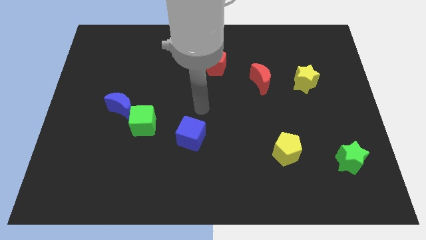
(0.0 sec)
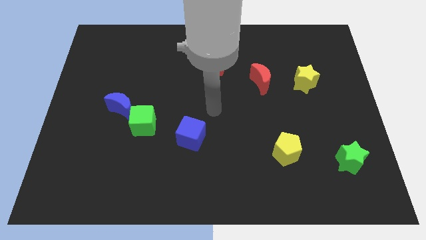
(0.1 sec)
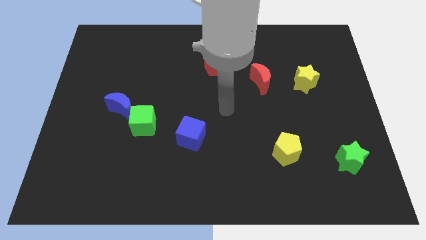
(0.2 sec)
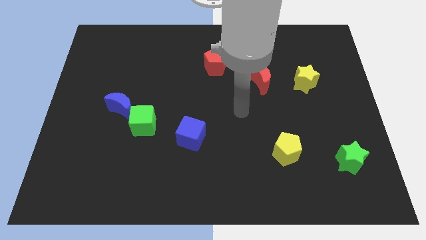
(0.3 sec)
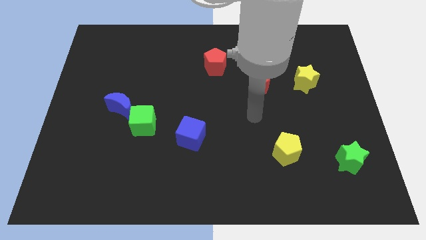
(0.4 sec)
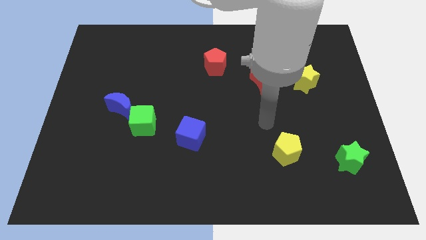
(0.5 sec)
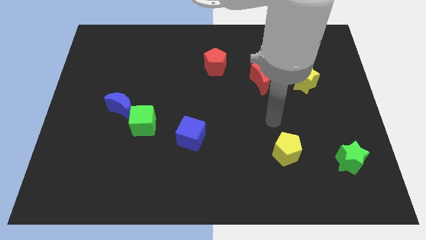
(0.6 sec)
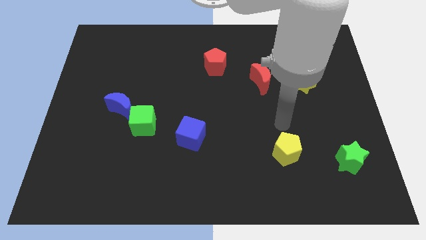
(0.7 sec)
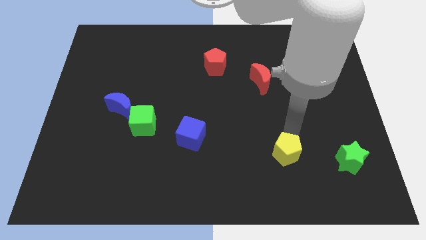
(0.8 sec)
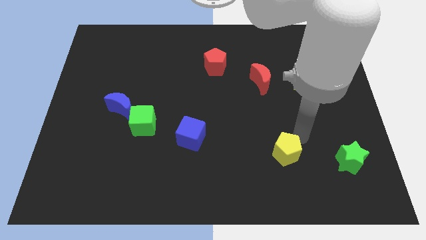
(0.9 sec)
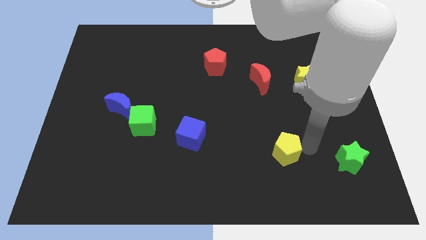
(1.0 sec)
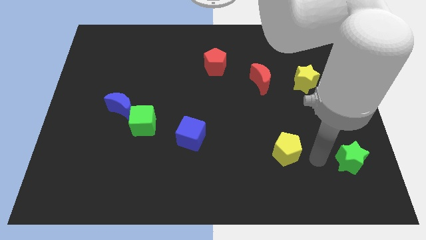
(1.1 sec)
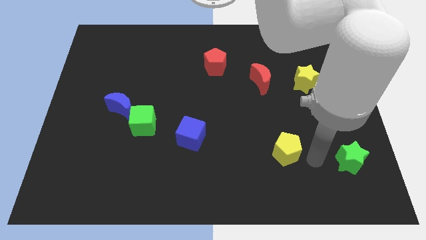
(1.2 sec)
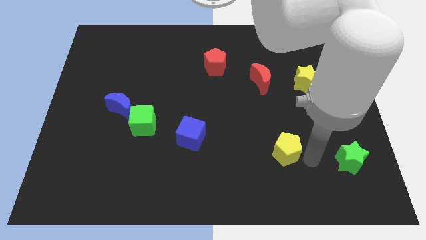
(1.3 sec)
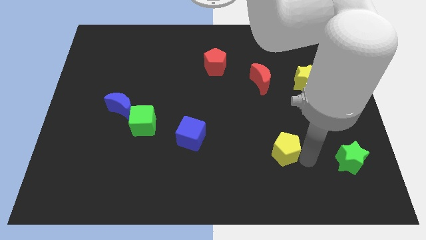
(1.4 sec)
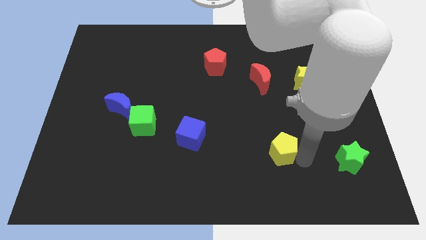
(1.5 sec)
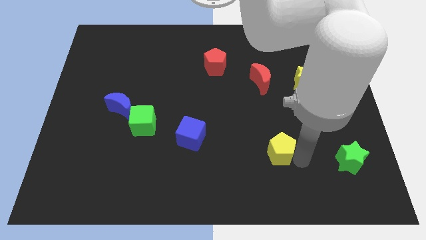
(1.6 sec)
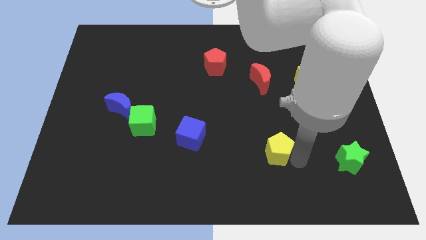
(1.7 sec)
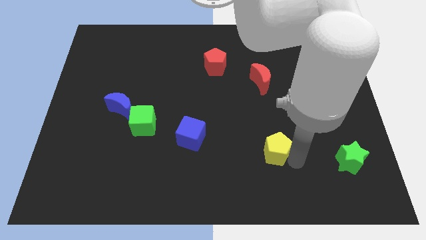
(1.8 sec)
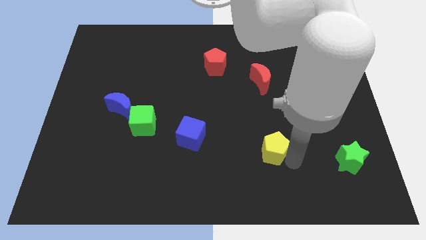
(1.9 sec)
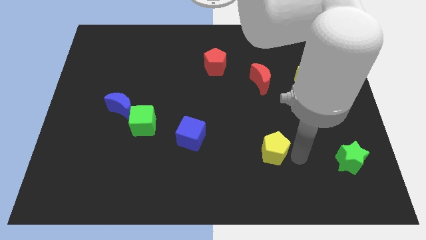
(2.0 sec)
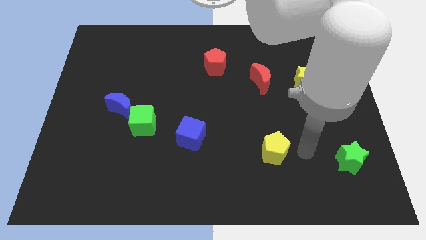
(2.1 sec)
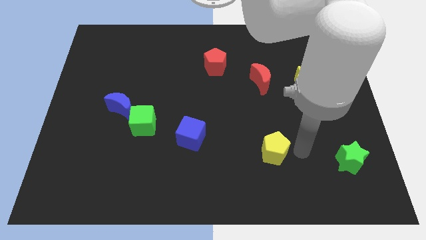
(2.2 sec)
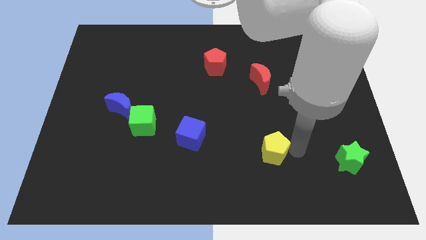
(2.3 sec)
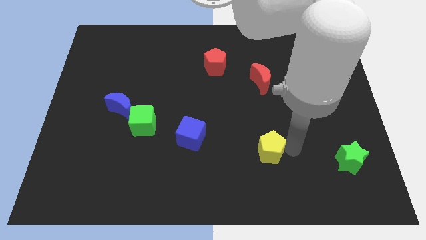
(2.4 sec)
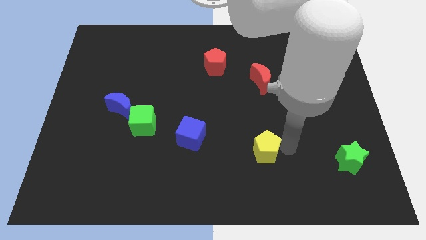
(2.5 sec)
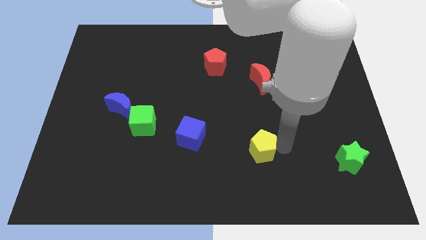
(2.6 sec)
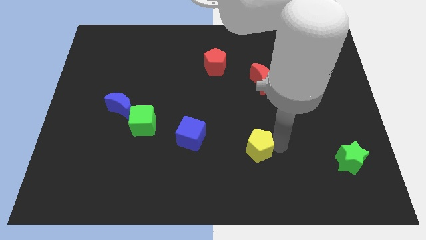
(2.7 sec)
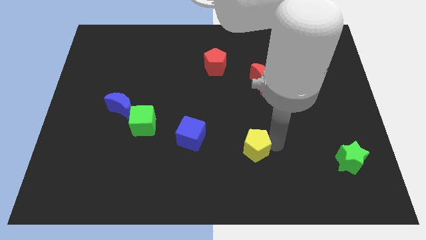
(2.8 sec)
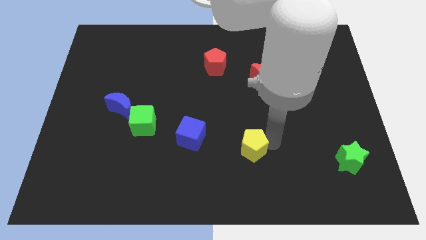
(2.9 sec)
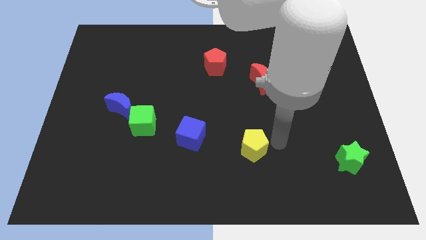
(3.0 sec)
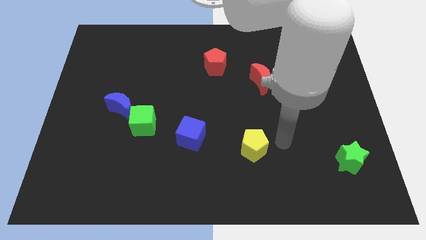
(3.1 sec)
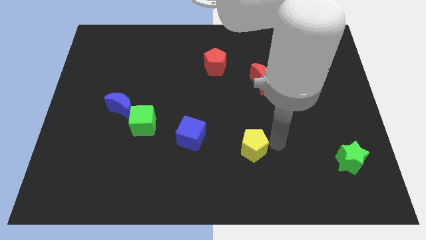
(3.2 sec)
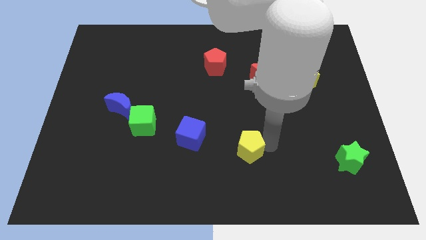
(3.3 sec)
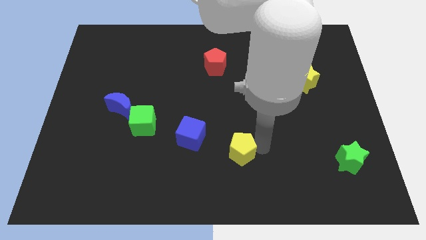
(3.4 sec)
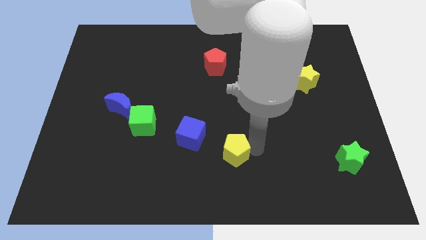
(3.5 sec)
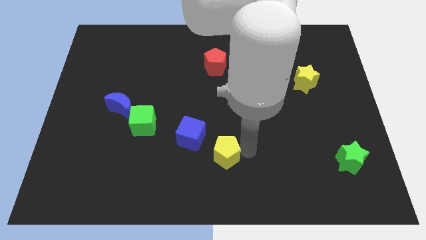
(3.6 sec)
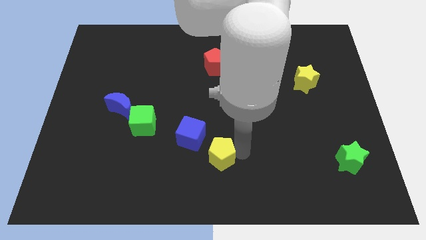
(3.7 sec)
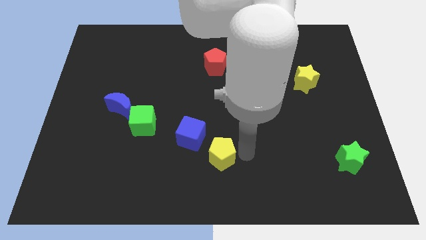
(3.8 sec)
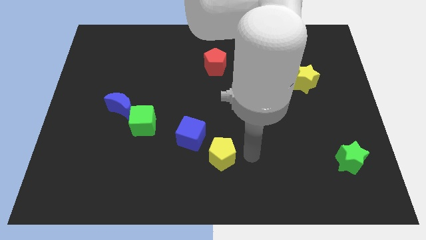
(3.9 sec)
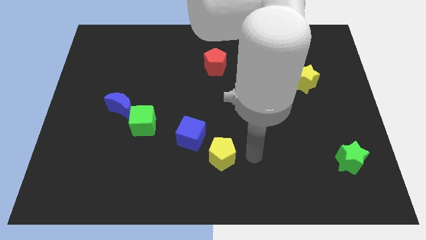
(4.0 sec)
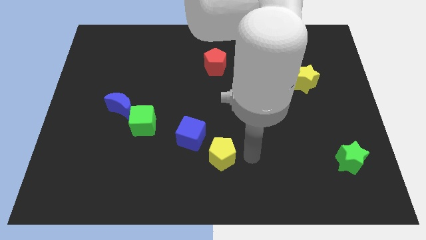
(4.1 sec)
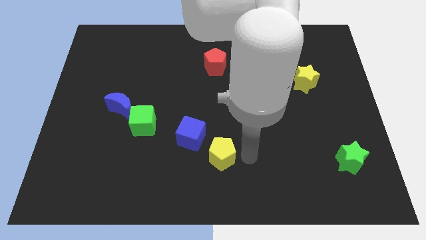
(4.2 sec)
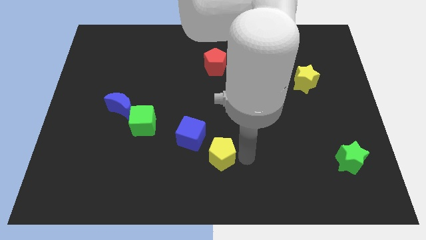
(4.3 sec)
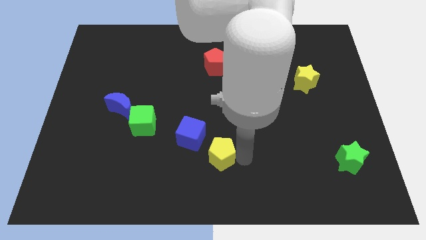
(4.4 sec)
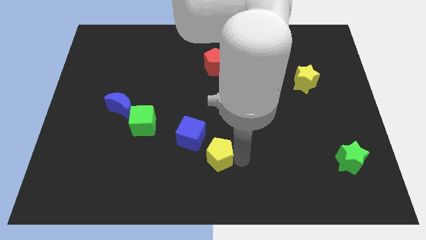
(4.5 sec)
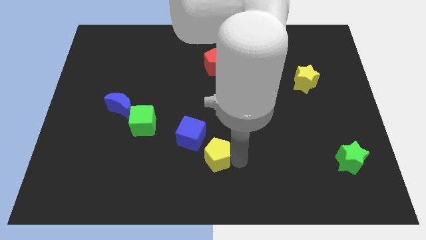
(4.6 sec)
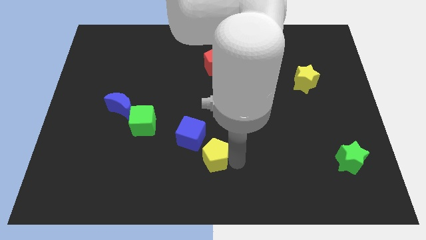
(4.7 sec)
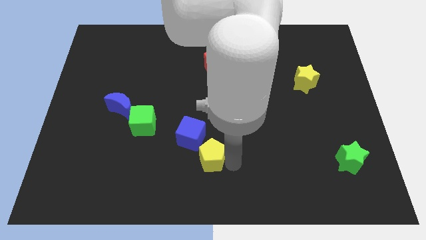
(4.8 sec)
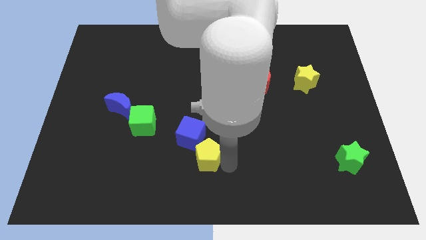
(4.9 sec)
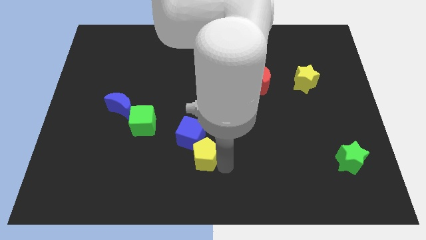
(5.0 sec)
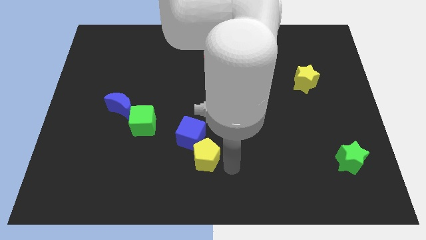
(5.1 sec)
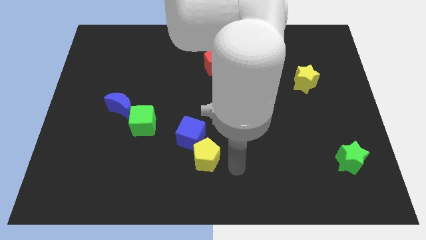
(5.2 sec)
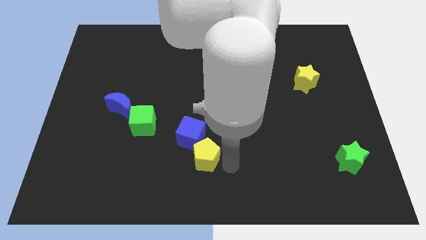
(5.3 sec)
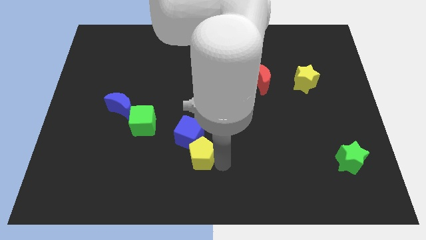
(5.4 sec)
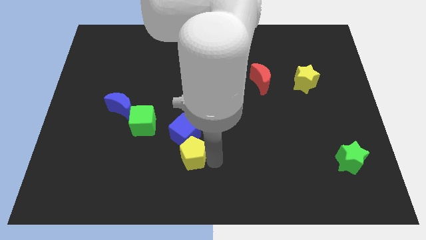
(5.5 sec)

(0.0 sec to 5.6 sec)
push the yellow pentagon left

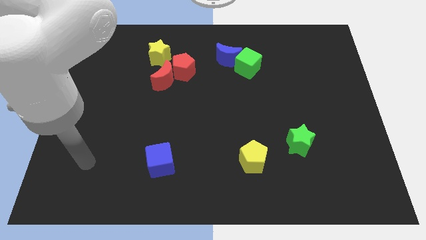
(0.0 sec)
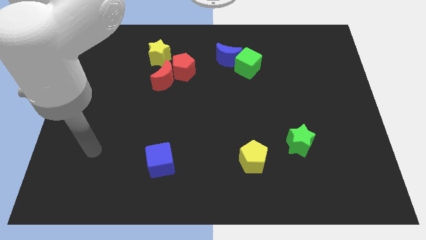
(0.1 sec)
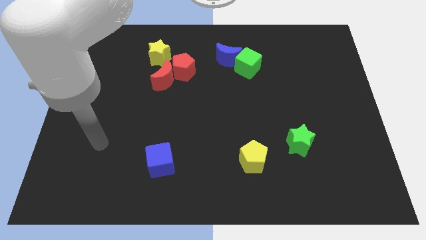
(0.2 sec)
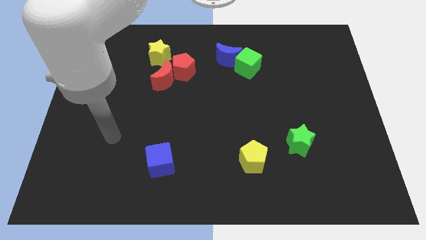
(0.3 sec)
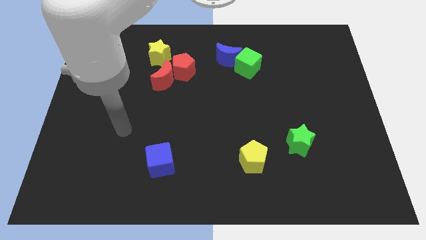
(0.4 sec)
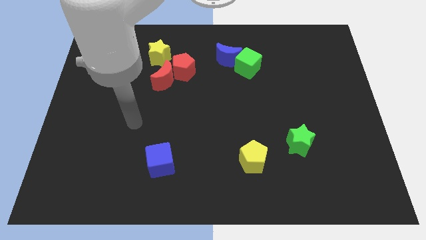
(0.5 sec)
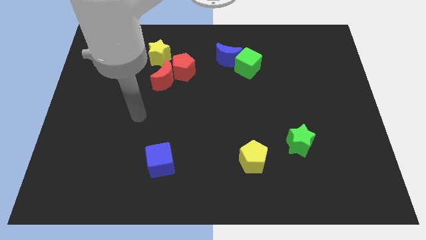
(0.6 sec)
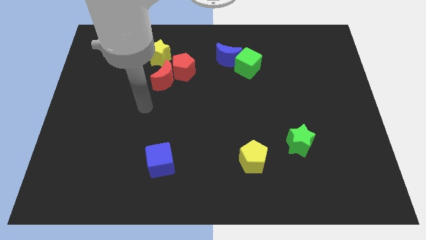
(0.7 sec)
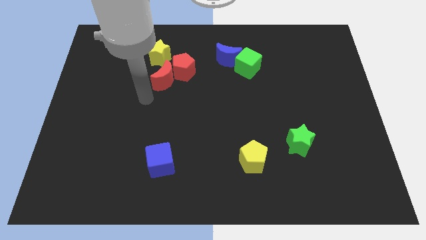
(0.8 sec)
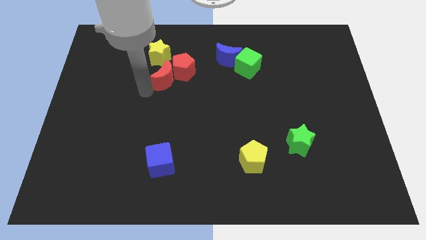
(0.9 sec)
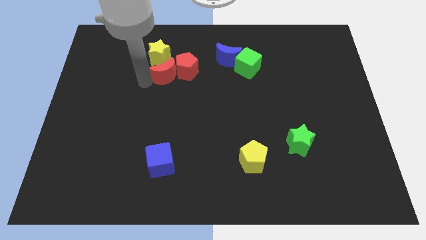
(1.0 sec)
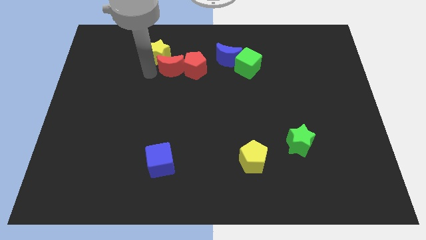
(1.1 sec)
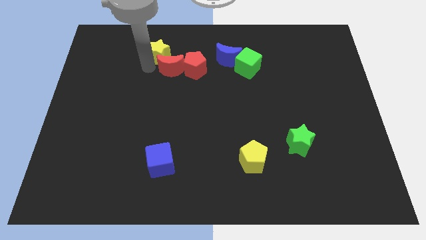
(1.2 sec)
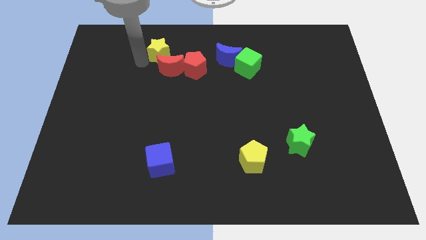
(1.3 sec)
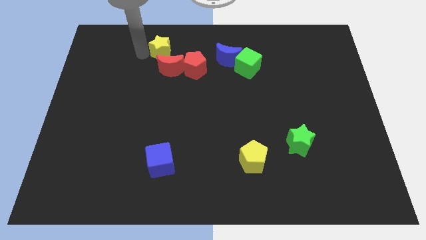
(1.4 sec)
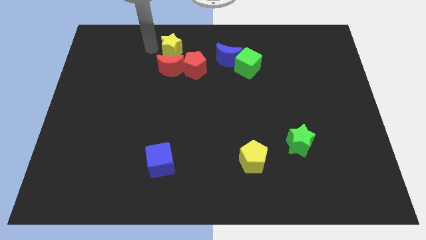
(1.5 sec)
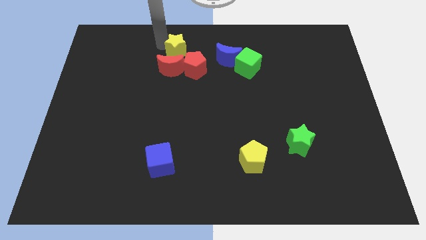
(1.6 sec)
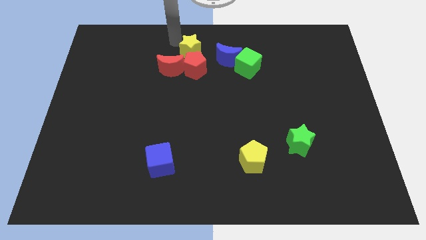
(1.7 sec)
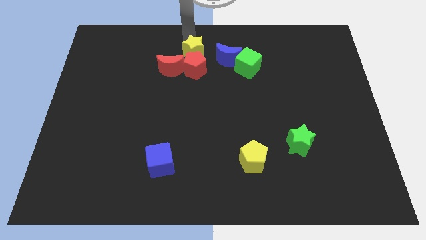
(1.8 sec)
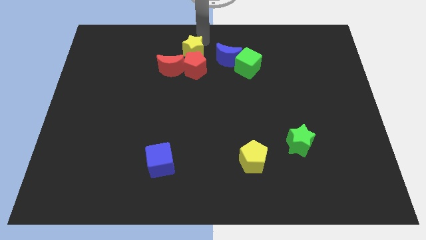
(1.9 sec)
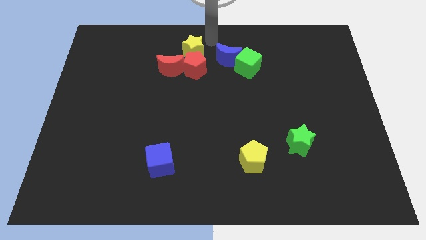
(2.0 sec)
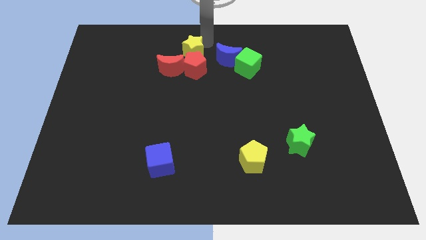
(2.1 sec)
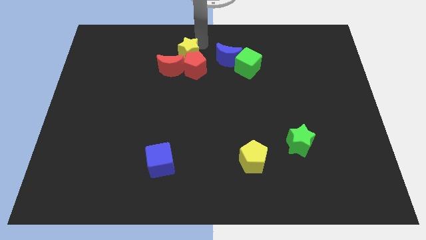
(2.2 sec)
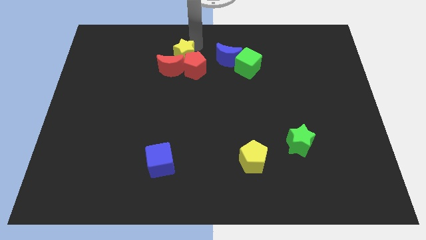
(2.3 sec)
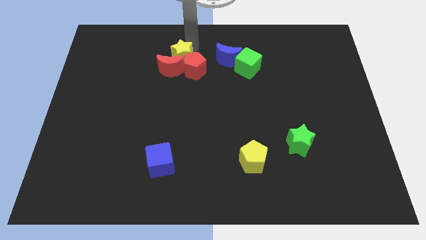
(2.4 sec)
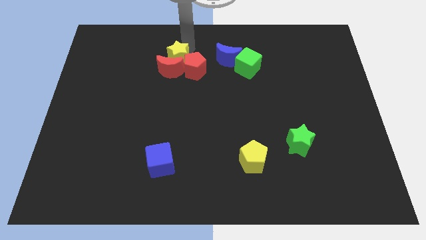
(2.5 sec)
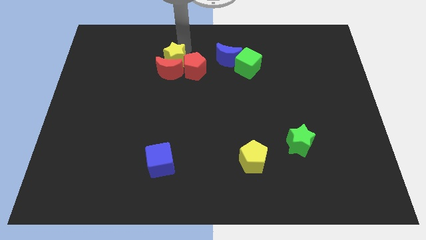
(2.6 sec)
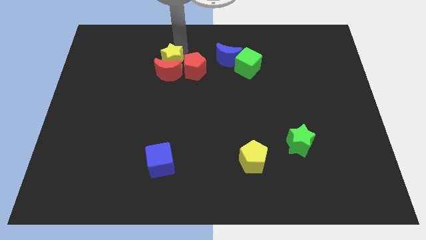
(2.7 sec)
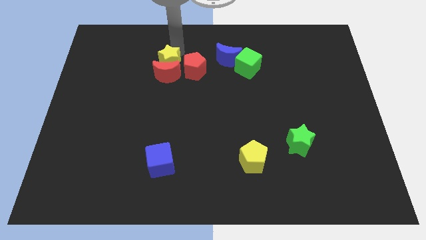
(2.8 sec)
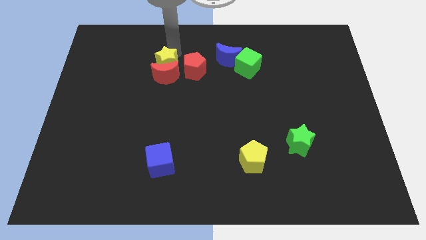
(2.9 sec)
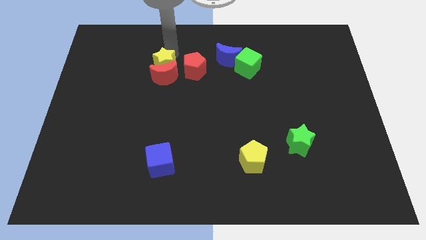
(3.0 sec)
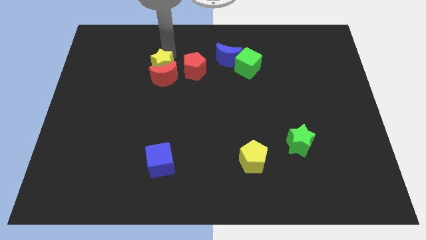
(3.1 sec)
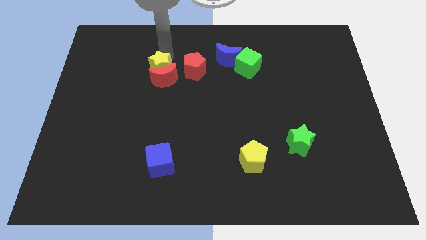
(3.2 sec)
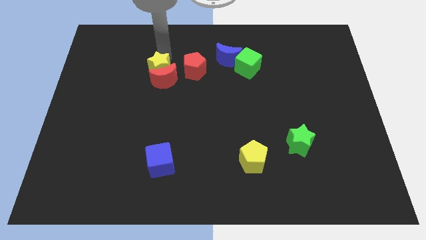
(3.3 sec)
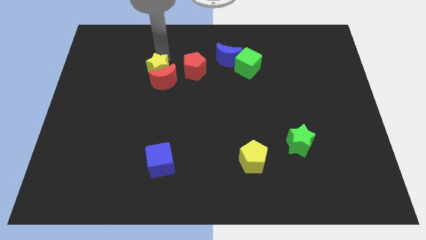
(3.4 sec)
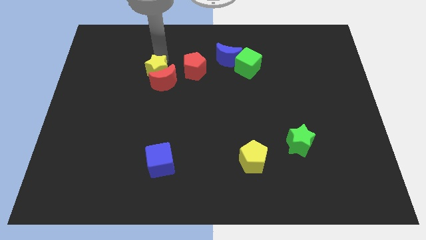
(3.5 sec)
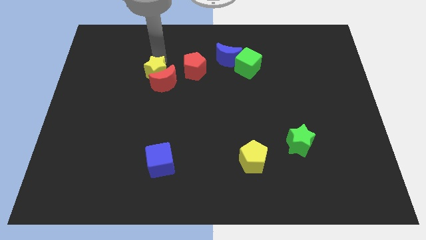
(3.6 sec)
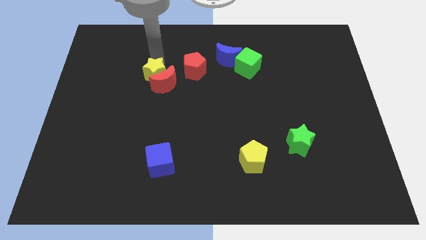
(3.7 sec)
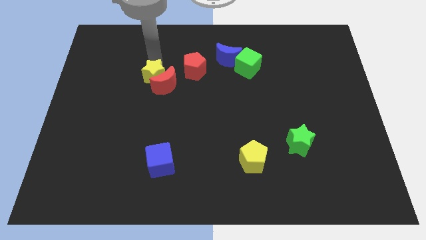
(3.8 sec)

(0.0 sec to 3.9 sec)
slightly slide the yellow star down
